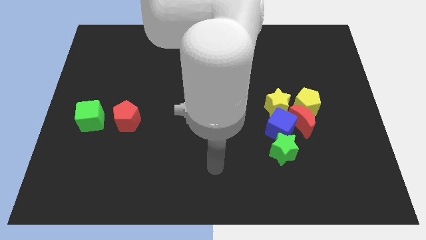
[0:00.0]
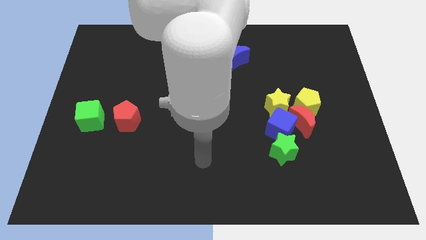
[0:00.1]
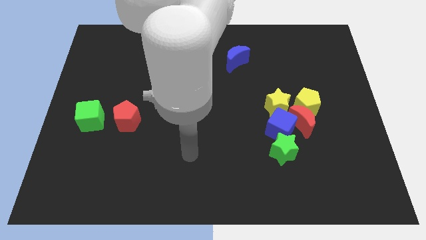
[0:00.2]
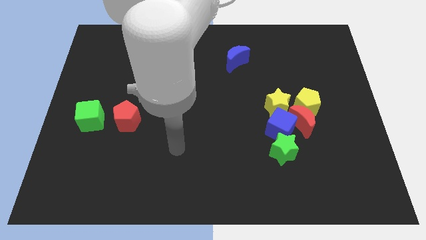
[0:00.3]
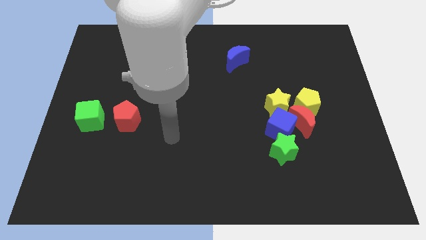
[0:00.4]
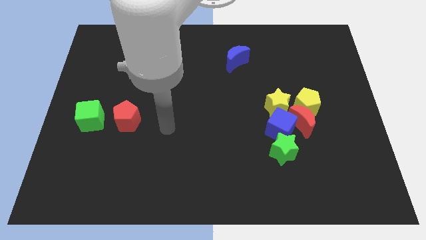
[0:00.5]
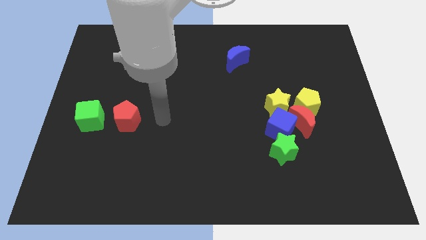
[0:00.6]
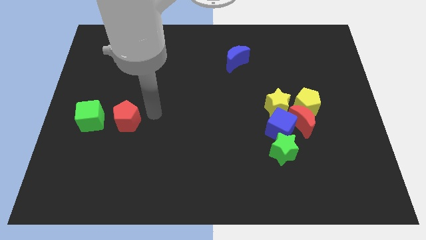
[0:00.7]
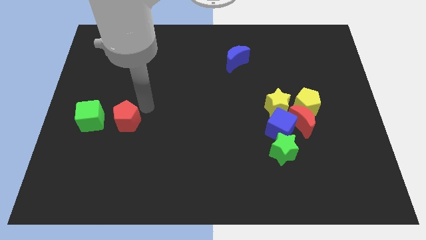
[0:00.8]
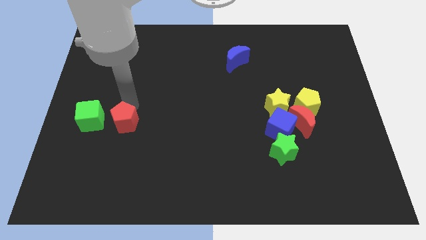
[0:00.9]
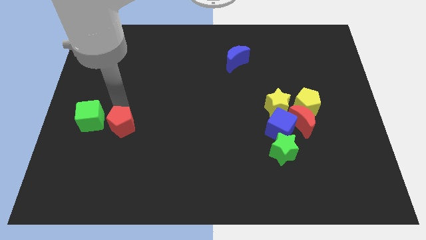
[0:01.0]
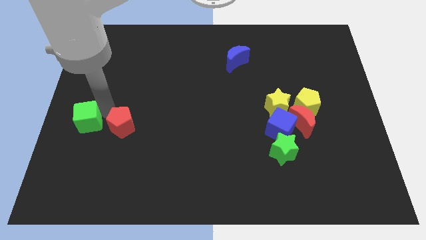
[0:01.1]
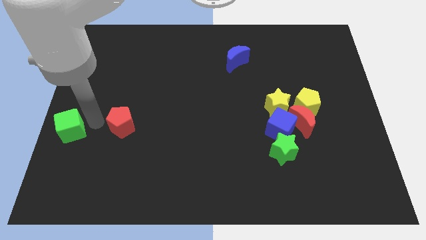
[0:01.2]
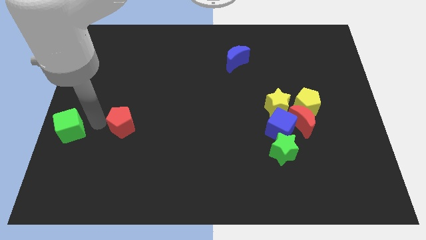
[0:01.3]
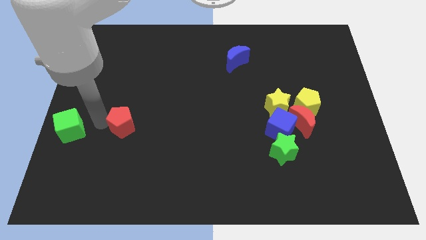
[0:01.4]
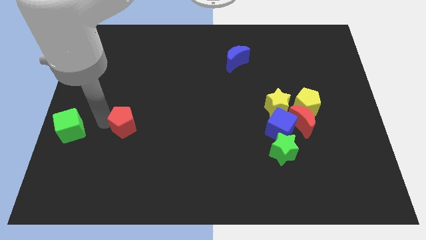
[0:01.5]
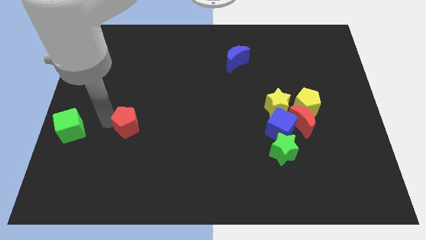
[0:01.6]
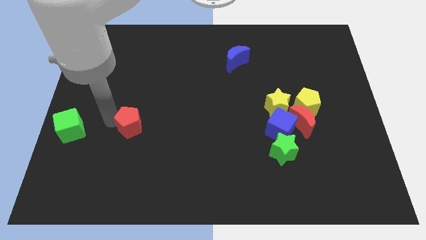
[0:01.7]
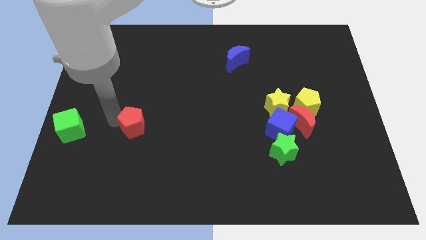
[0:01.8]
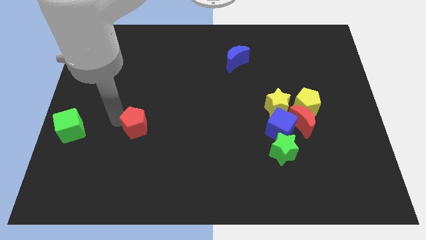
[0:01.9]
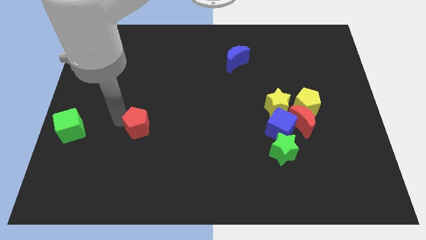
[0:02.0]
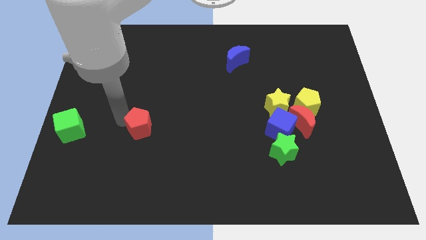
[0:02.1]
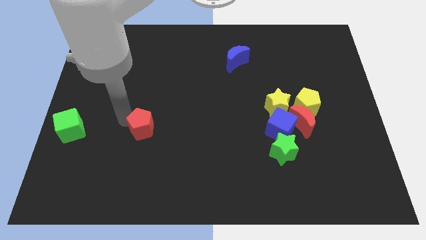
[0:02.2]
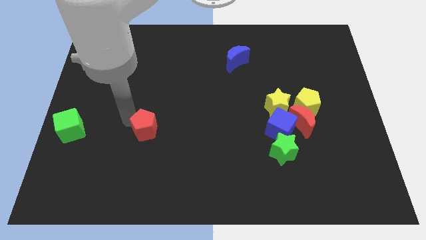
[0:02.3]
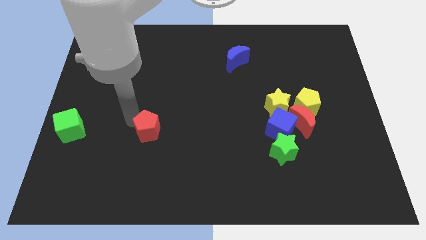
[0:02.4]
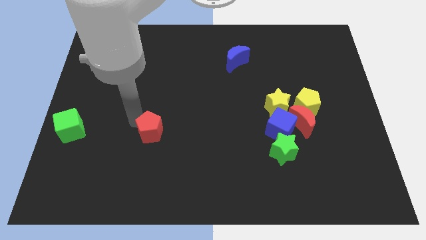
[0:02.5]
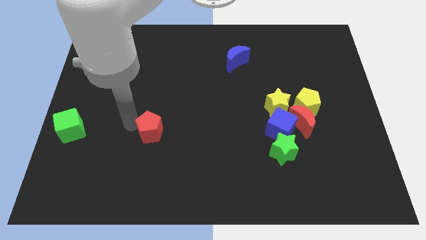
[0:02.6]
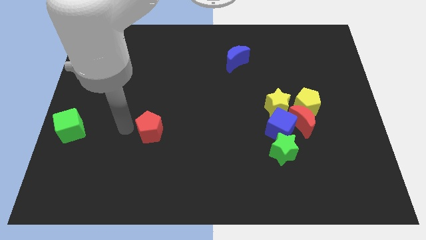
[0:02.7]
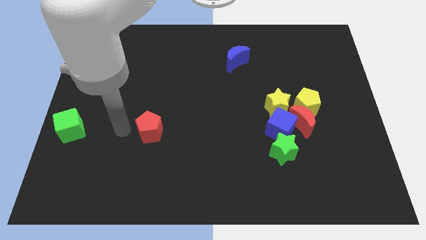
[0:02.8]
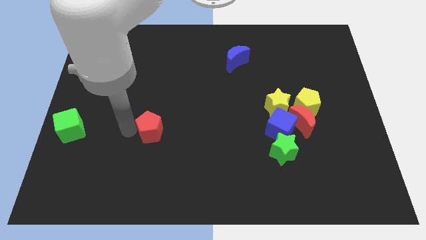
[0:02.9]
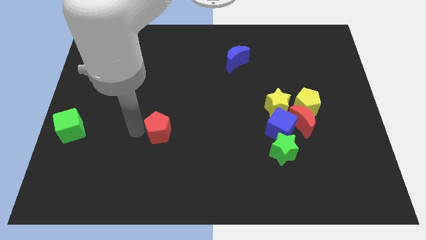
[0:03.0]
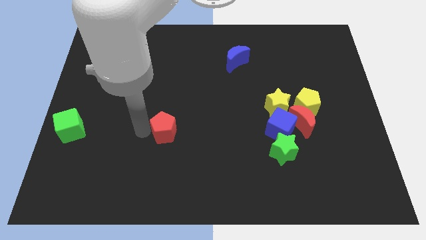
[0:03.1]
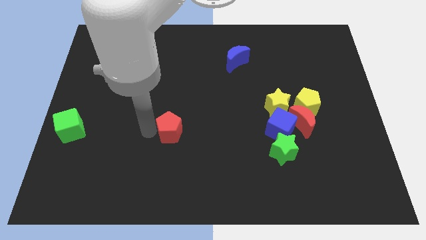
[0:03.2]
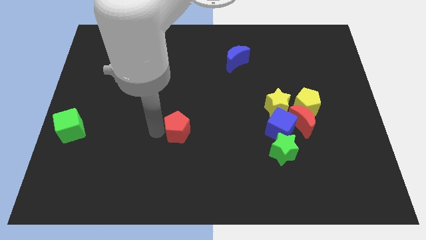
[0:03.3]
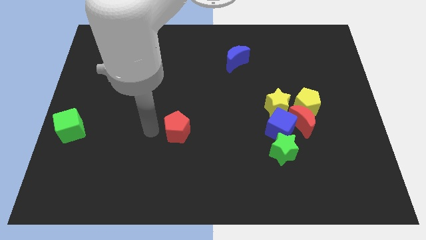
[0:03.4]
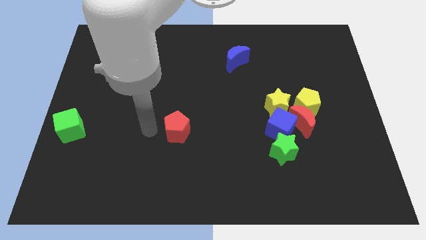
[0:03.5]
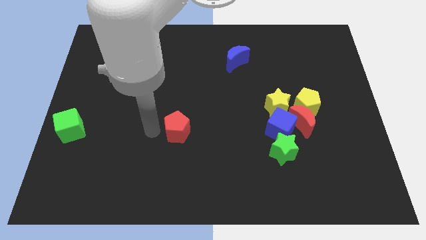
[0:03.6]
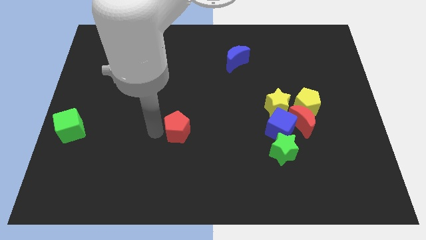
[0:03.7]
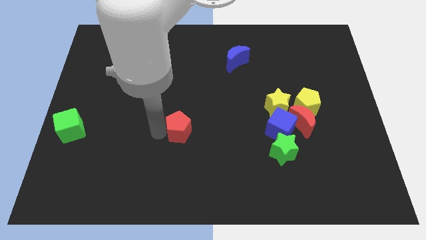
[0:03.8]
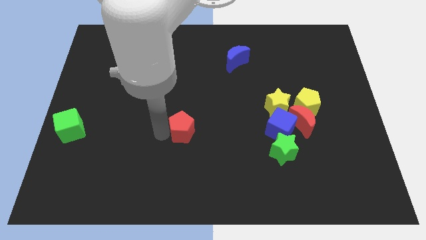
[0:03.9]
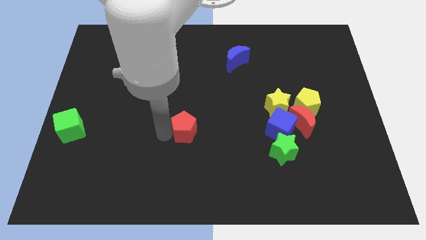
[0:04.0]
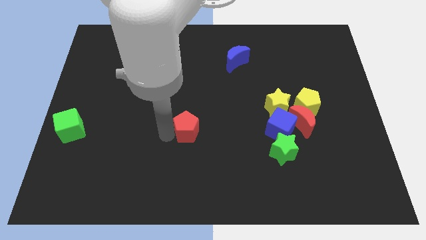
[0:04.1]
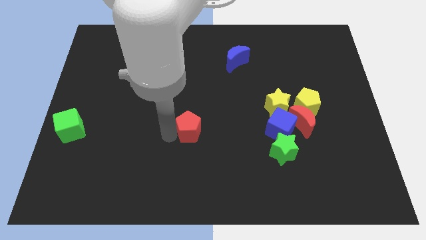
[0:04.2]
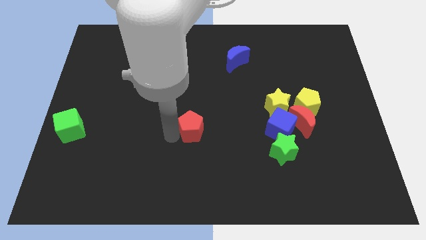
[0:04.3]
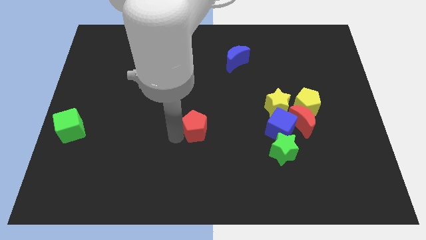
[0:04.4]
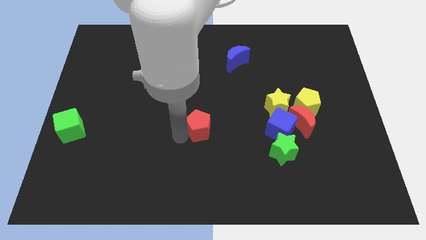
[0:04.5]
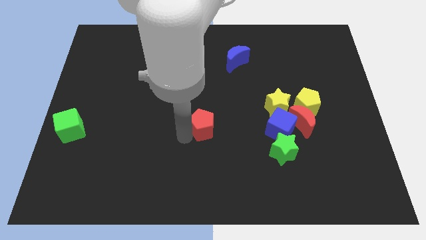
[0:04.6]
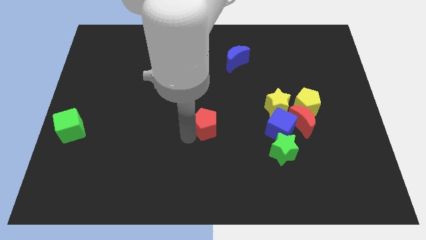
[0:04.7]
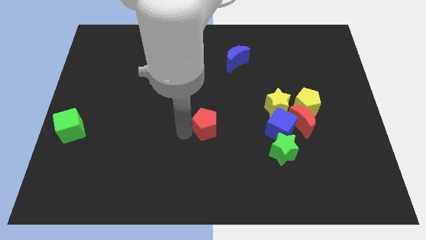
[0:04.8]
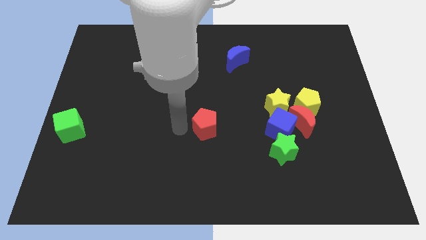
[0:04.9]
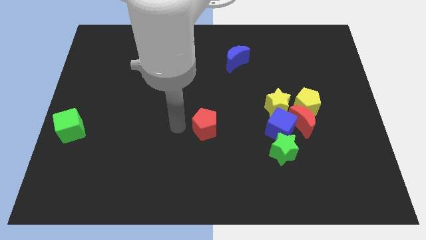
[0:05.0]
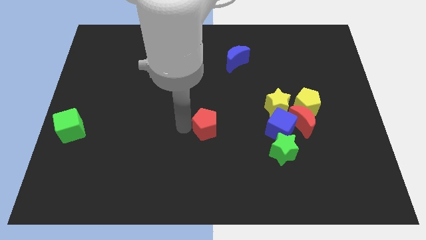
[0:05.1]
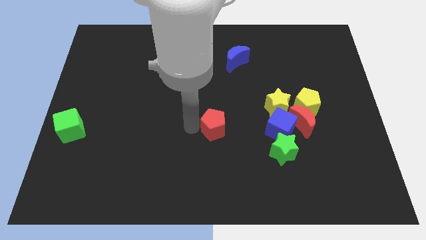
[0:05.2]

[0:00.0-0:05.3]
push the red pentagon to the left of the blue cube

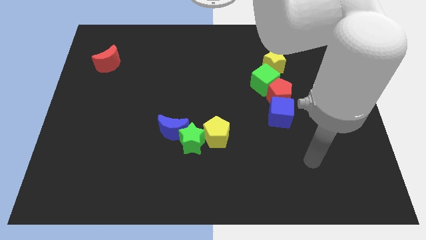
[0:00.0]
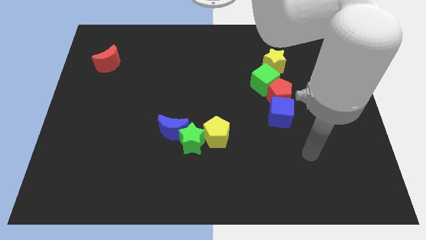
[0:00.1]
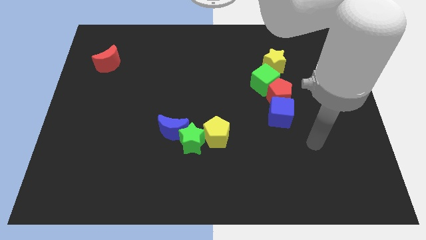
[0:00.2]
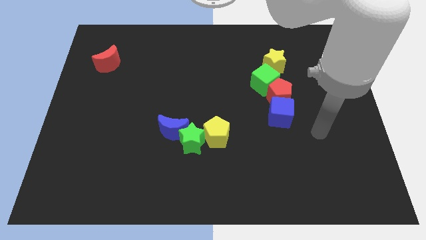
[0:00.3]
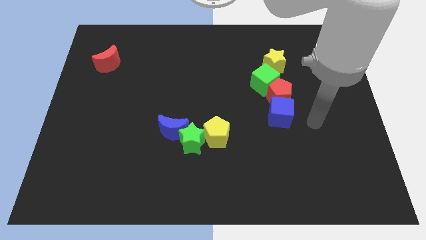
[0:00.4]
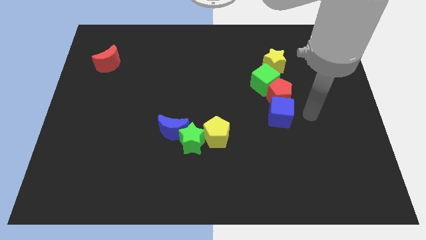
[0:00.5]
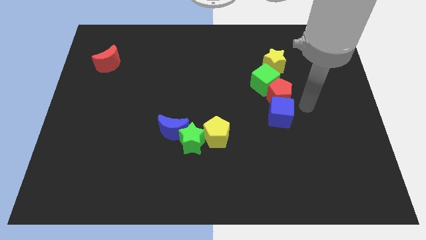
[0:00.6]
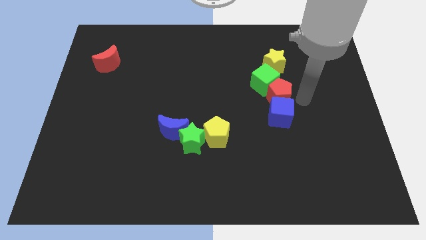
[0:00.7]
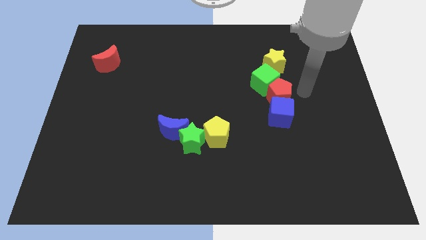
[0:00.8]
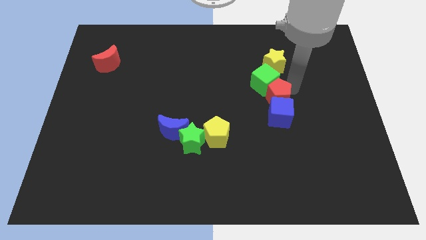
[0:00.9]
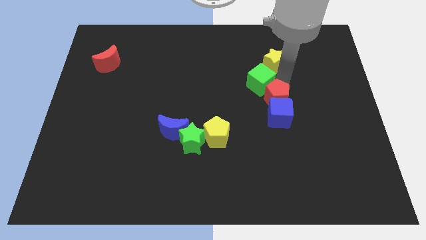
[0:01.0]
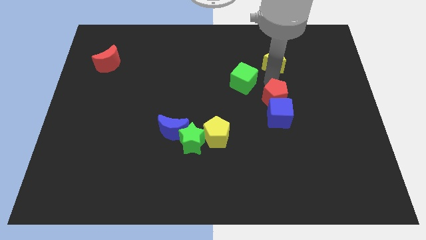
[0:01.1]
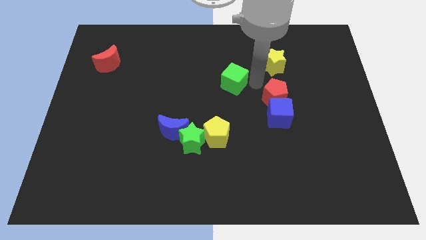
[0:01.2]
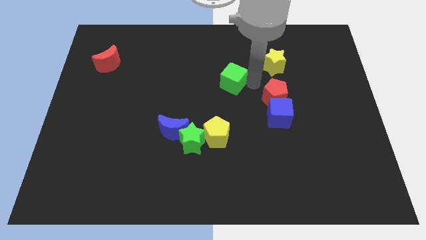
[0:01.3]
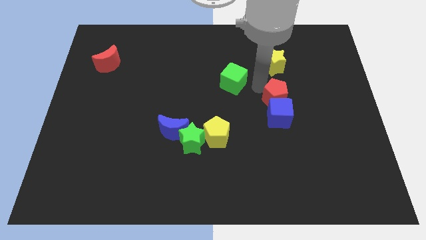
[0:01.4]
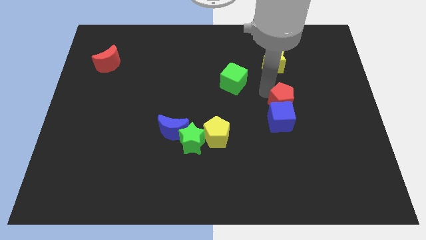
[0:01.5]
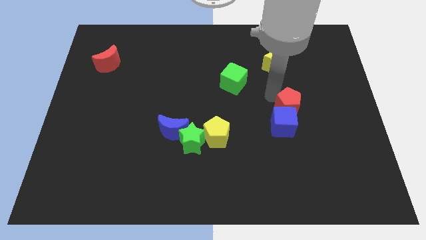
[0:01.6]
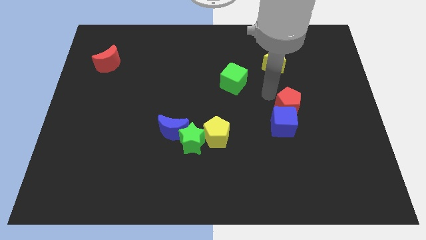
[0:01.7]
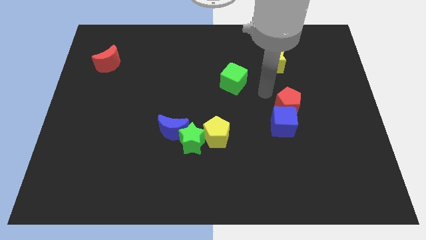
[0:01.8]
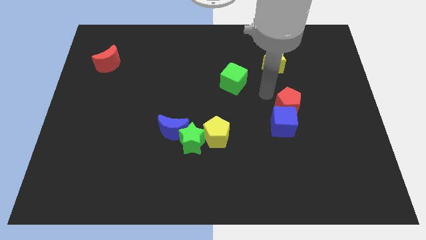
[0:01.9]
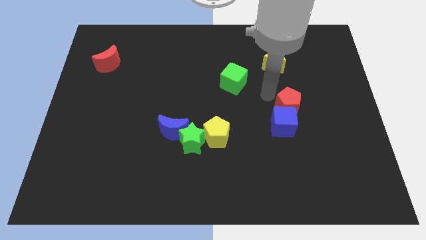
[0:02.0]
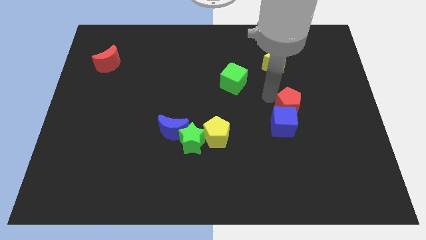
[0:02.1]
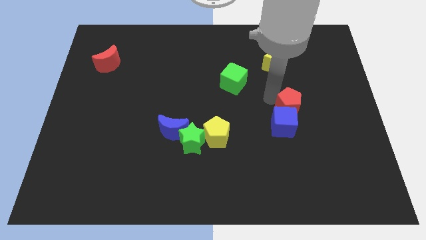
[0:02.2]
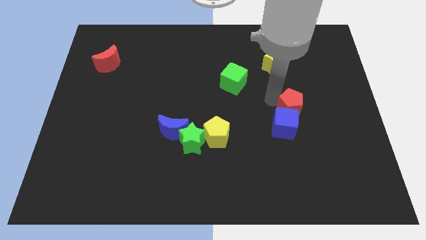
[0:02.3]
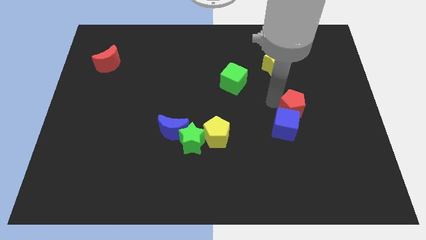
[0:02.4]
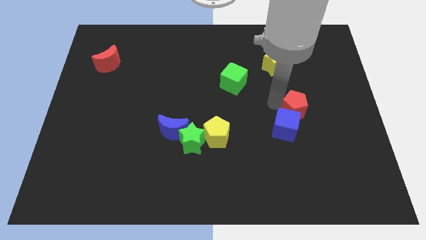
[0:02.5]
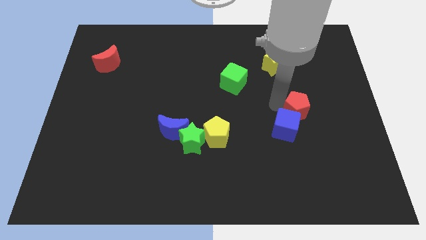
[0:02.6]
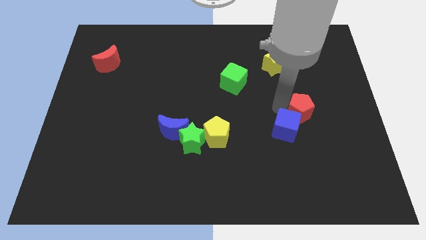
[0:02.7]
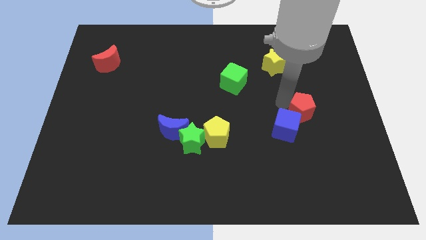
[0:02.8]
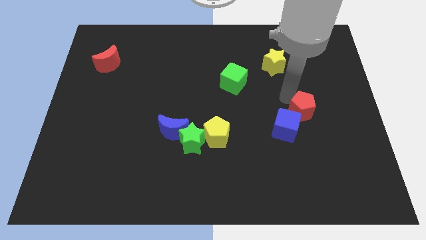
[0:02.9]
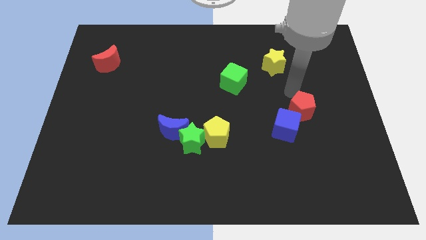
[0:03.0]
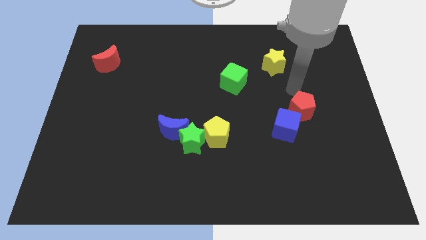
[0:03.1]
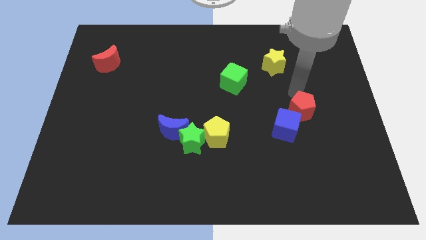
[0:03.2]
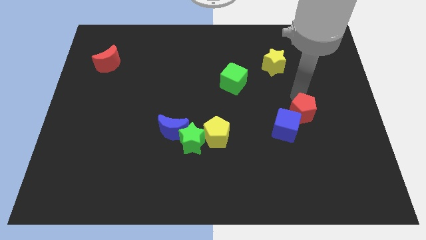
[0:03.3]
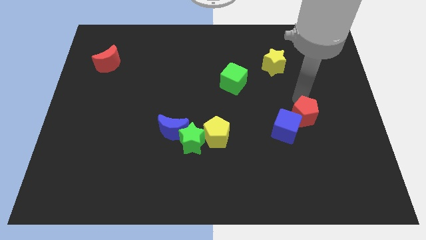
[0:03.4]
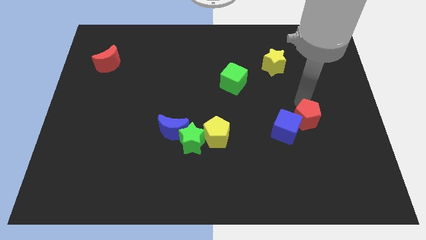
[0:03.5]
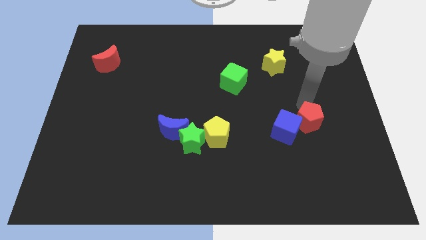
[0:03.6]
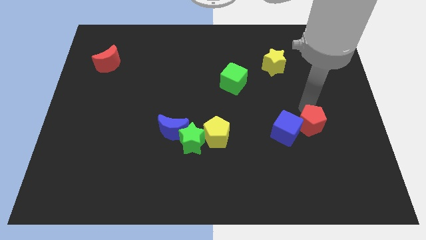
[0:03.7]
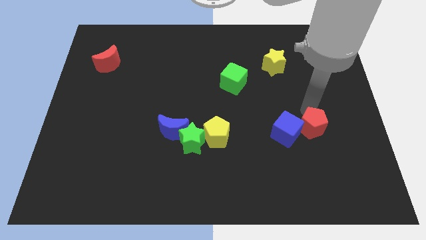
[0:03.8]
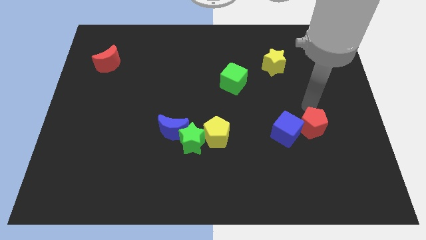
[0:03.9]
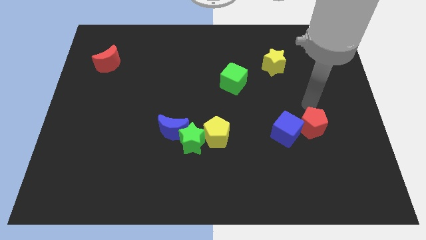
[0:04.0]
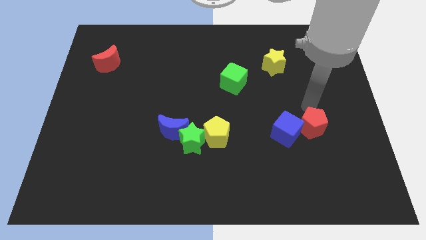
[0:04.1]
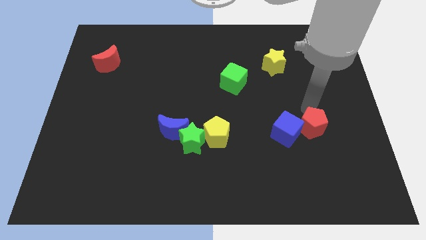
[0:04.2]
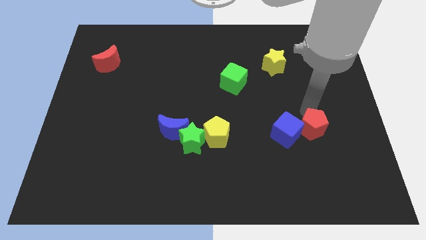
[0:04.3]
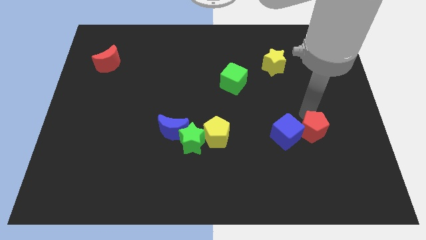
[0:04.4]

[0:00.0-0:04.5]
slide the red pentagon to the bottom right side of the blue cube
